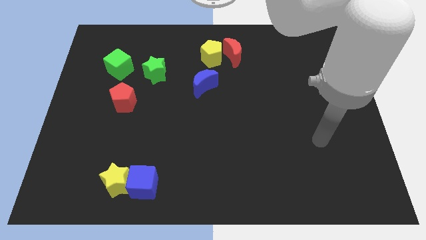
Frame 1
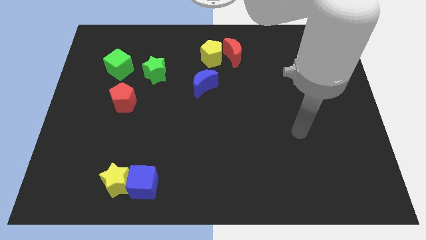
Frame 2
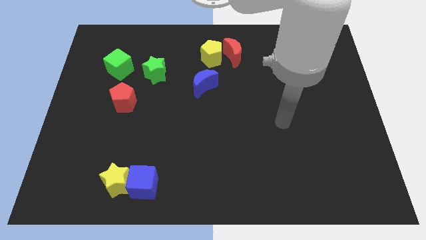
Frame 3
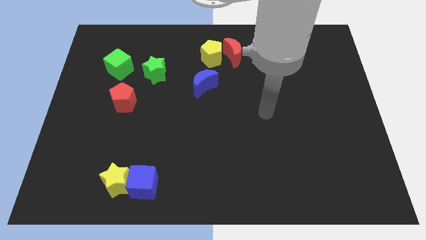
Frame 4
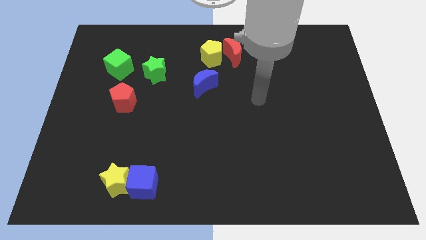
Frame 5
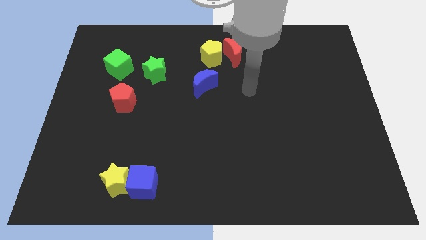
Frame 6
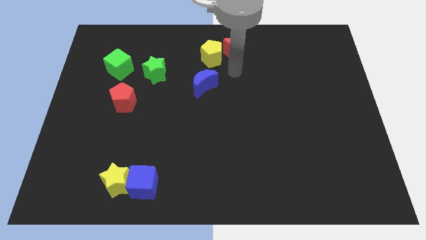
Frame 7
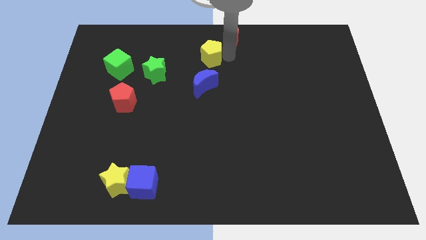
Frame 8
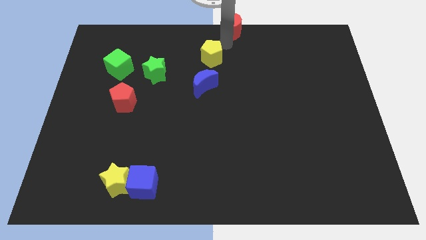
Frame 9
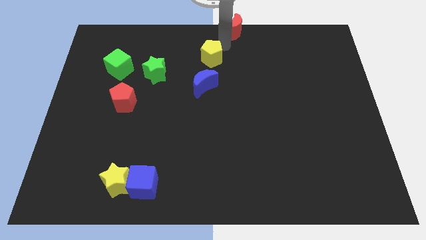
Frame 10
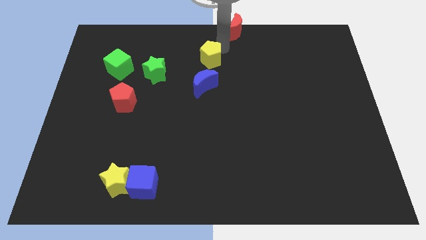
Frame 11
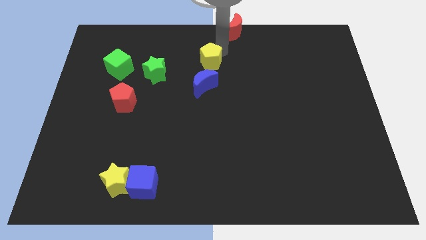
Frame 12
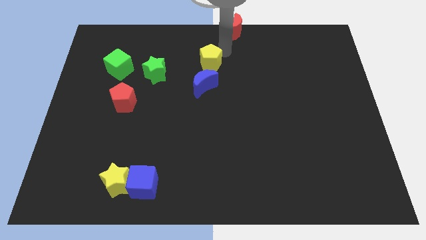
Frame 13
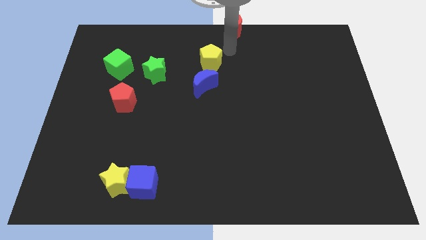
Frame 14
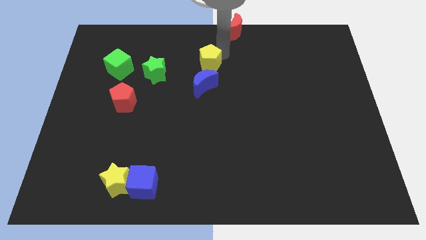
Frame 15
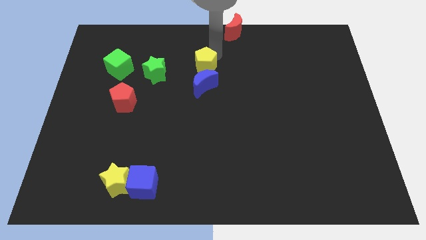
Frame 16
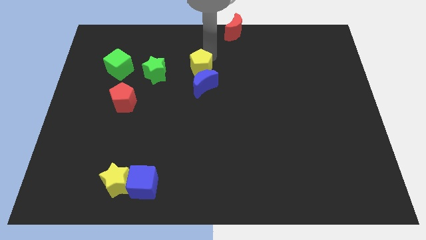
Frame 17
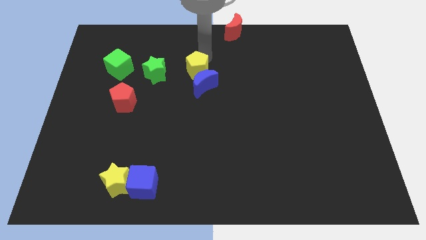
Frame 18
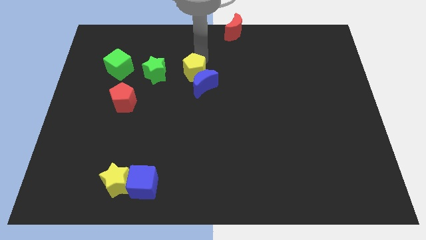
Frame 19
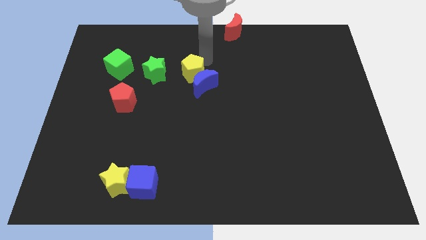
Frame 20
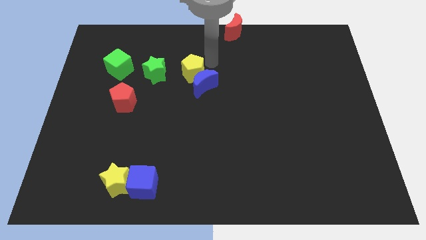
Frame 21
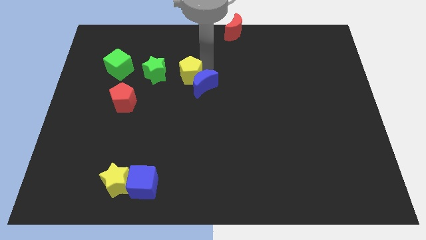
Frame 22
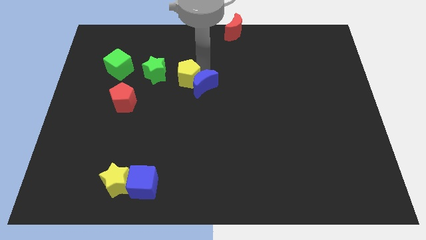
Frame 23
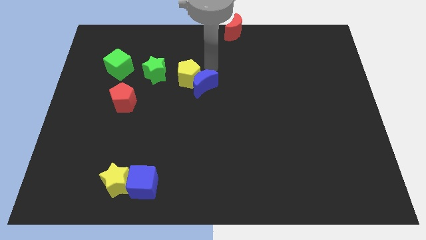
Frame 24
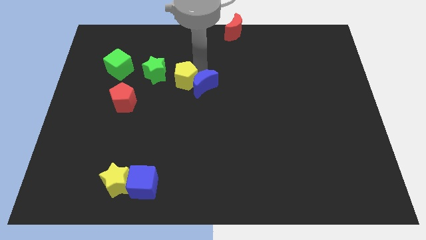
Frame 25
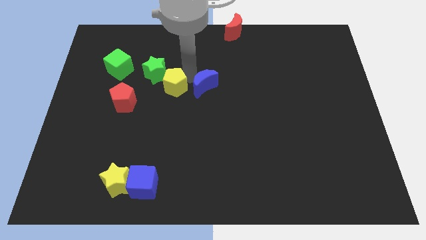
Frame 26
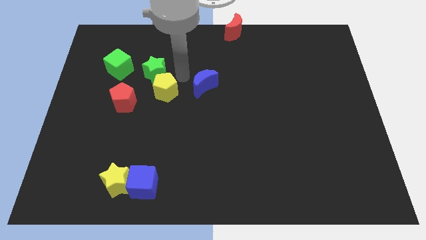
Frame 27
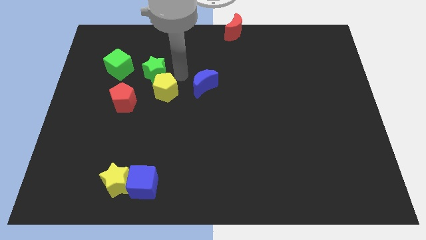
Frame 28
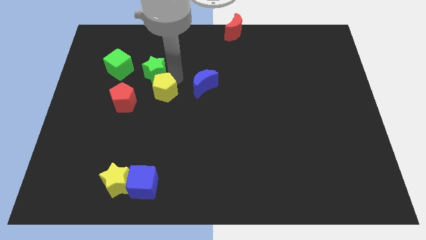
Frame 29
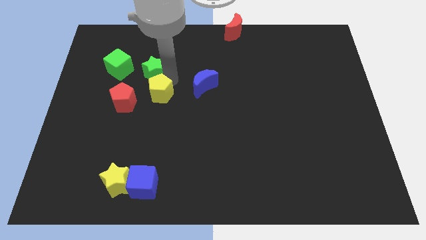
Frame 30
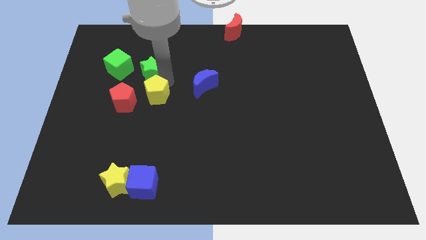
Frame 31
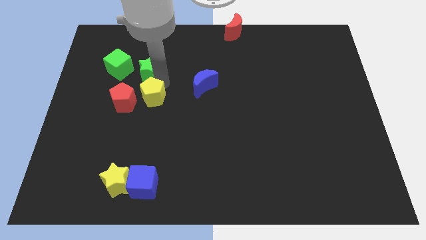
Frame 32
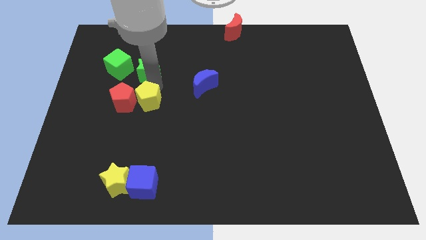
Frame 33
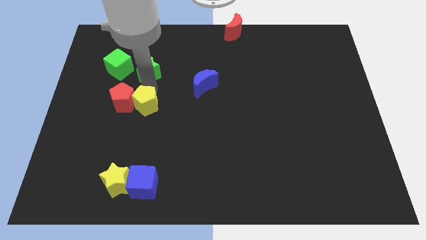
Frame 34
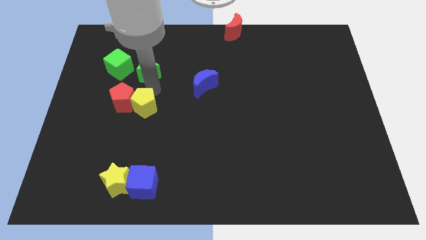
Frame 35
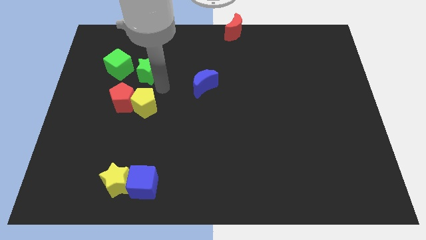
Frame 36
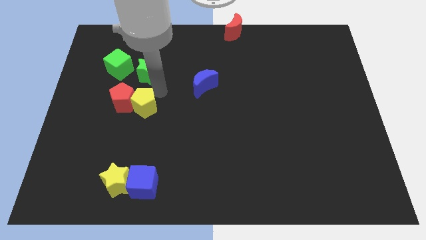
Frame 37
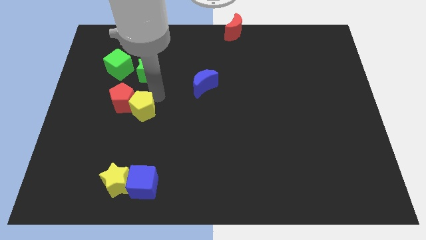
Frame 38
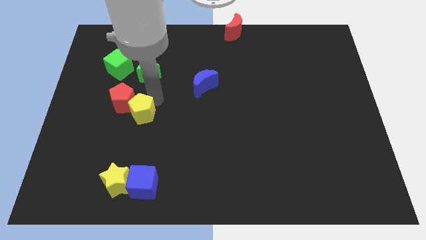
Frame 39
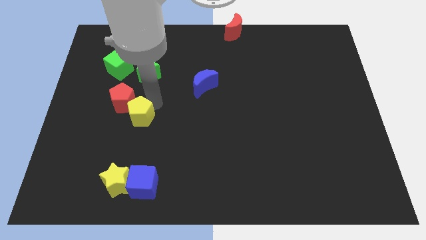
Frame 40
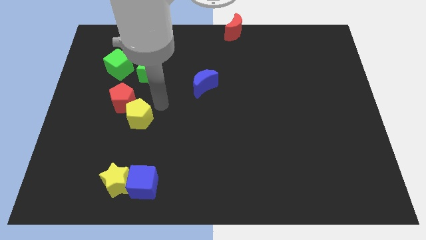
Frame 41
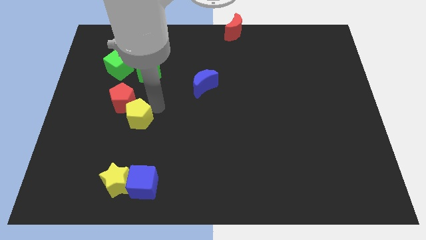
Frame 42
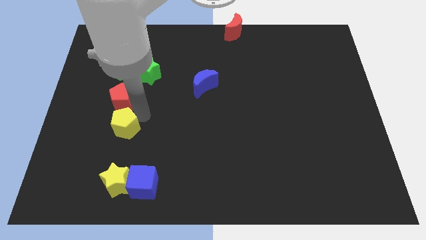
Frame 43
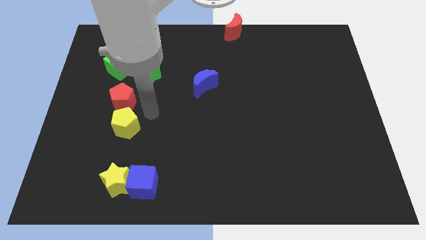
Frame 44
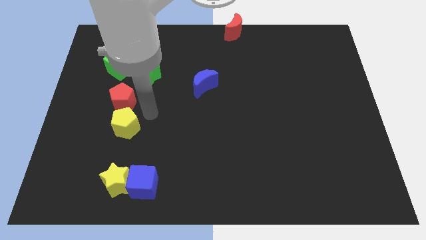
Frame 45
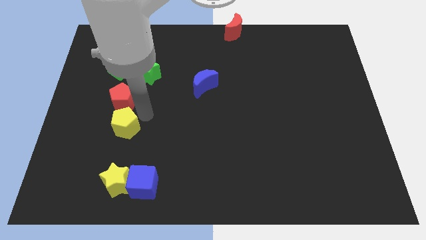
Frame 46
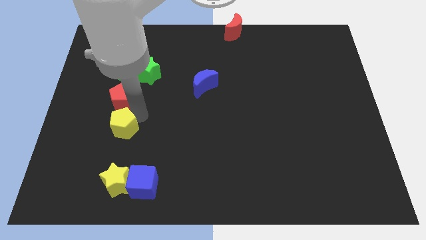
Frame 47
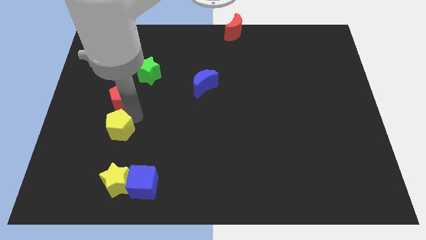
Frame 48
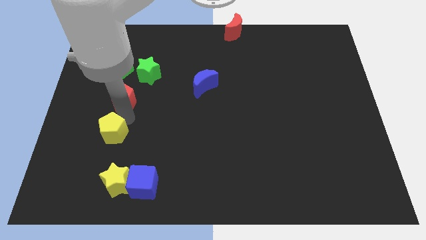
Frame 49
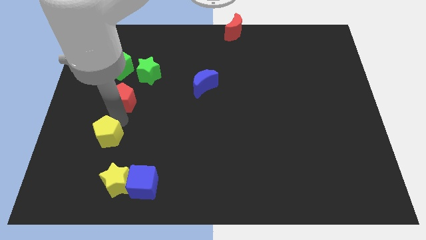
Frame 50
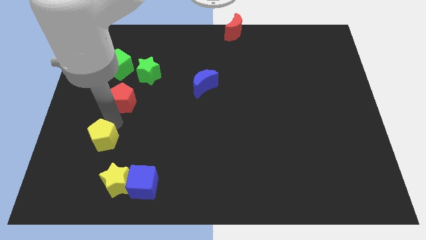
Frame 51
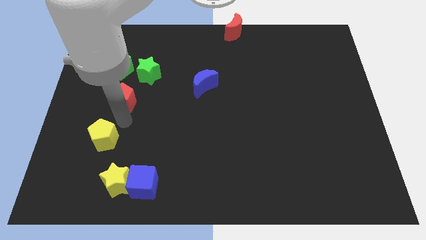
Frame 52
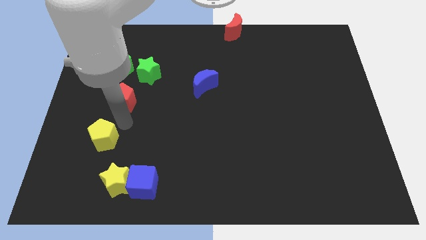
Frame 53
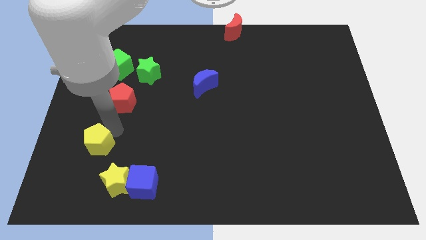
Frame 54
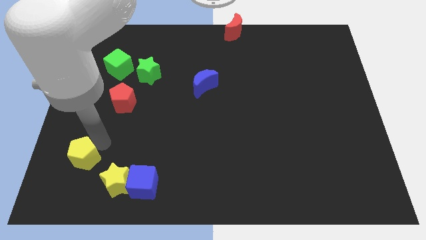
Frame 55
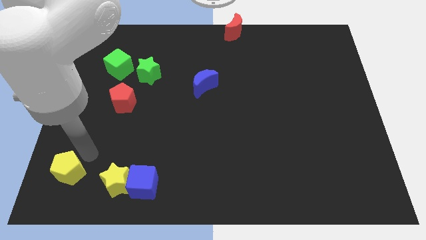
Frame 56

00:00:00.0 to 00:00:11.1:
slide the yellow pentagon to the lower left corner

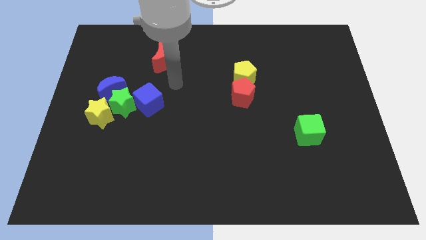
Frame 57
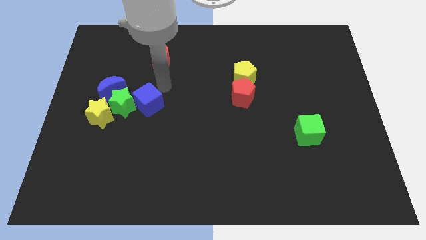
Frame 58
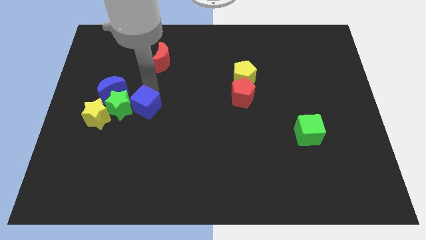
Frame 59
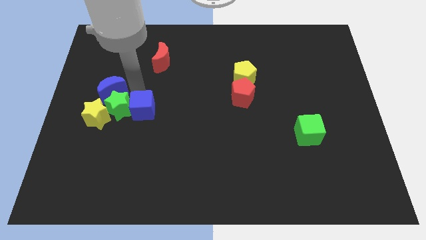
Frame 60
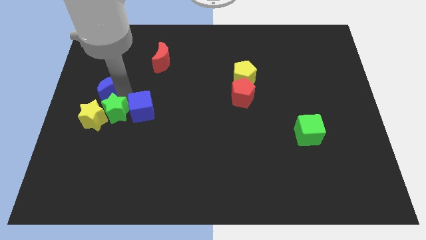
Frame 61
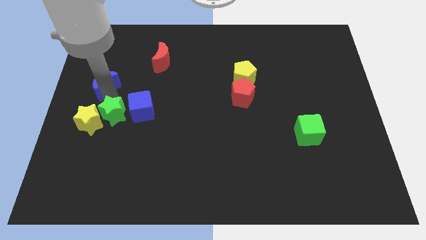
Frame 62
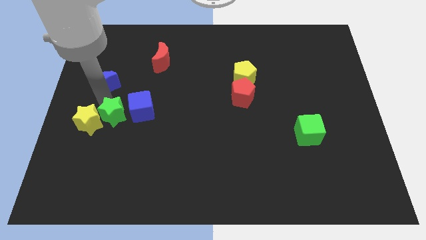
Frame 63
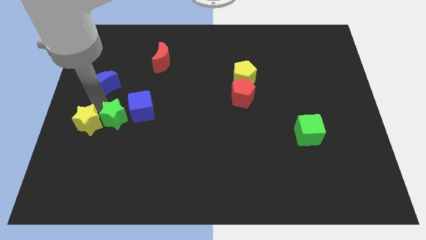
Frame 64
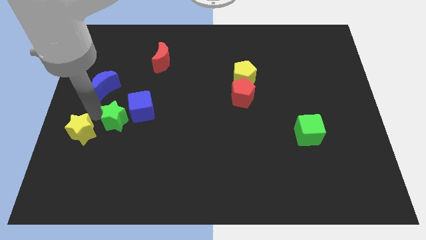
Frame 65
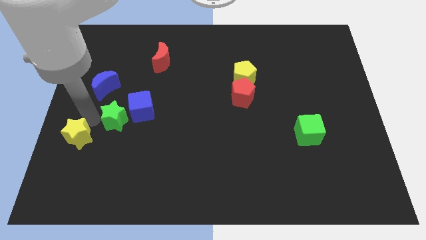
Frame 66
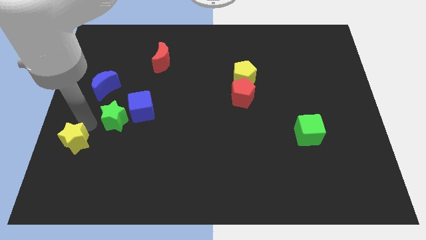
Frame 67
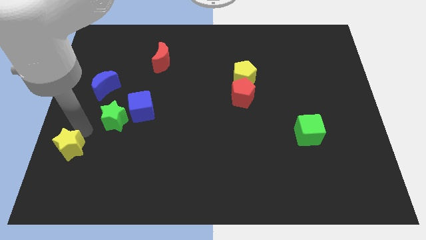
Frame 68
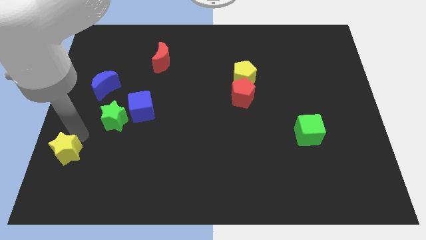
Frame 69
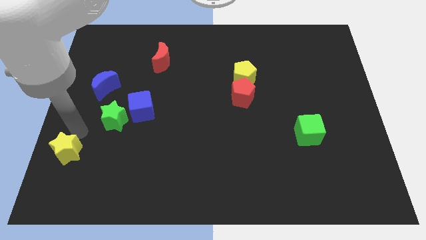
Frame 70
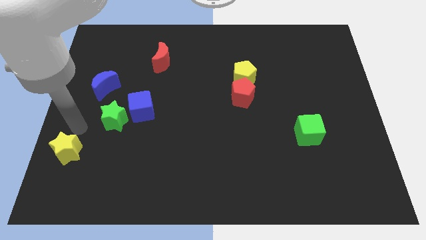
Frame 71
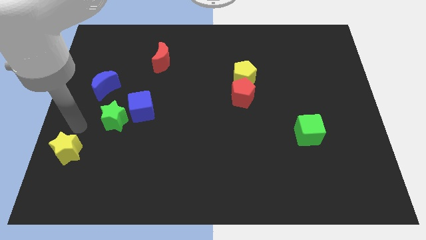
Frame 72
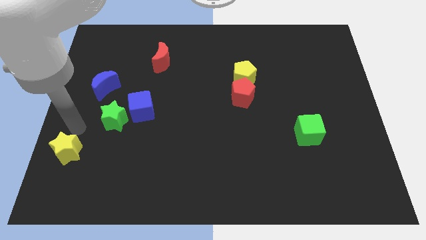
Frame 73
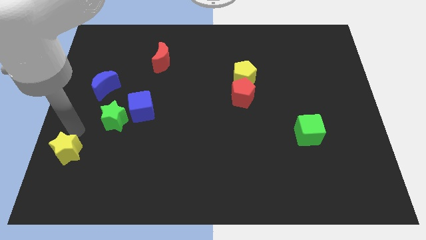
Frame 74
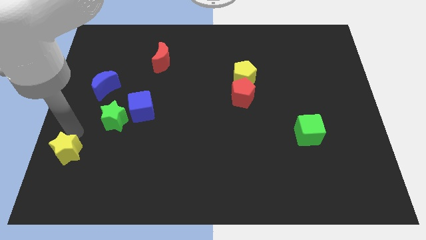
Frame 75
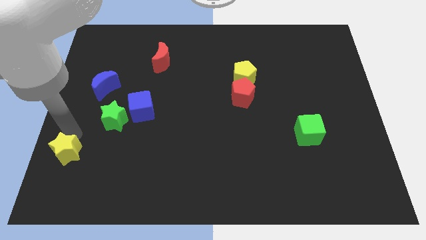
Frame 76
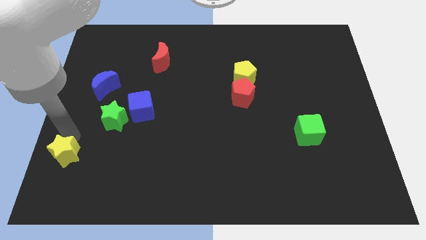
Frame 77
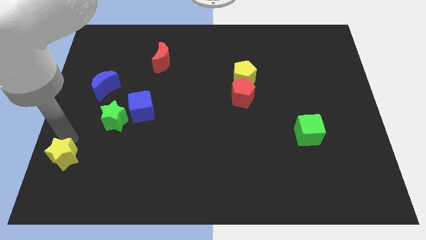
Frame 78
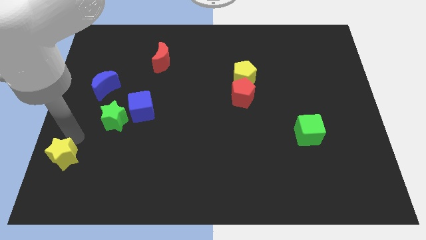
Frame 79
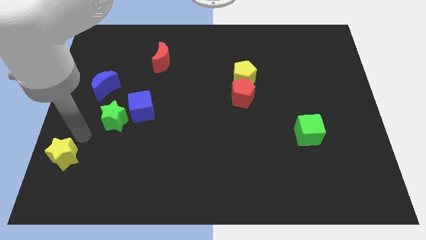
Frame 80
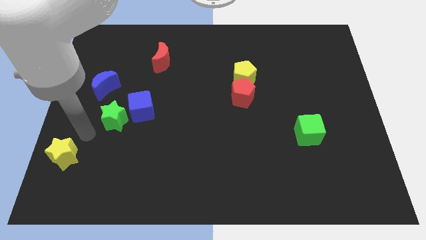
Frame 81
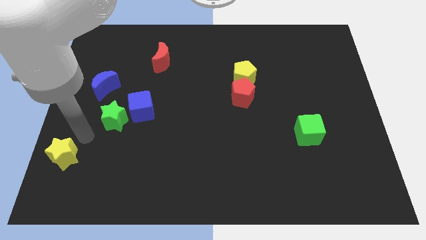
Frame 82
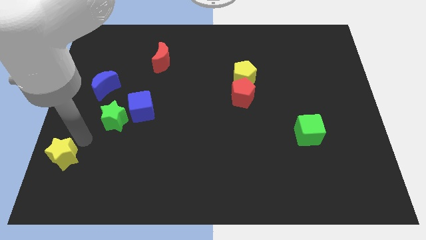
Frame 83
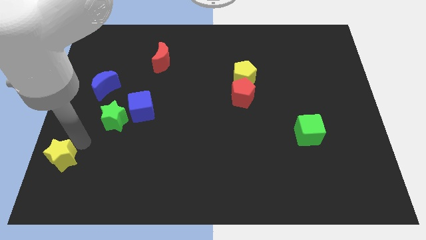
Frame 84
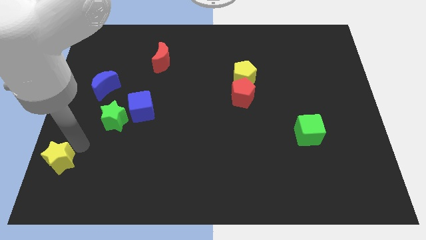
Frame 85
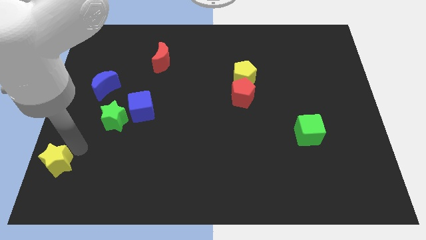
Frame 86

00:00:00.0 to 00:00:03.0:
move the yellow star to the bottom left
